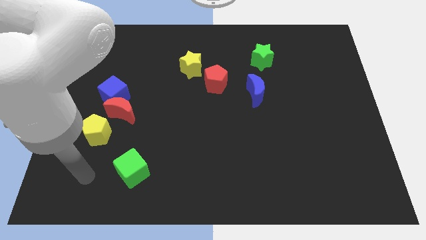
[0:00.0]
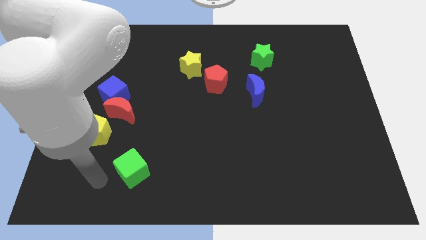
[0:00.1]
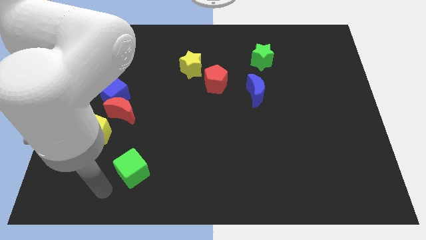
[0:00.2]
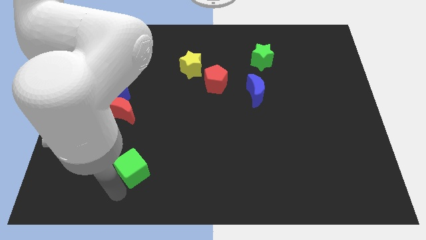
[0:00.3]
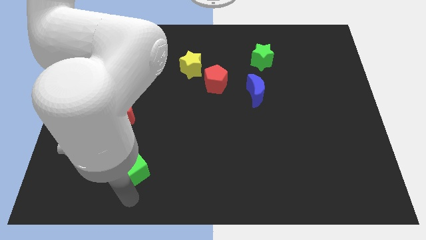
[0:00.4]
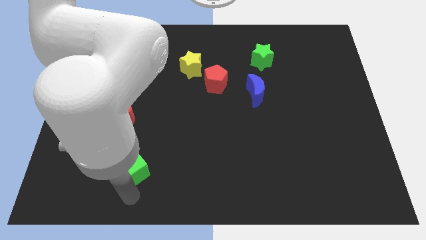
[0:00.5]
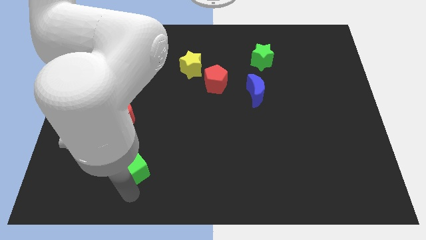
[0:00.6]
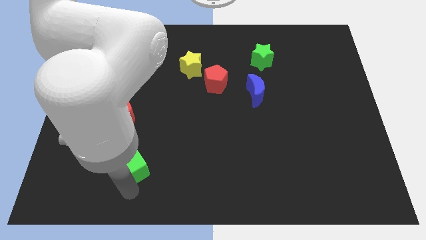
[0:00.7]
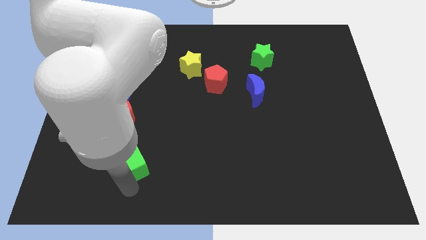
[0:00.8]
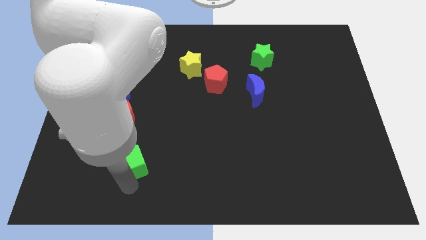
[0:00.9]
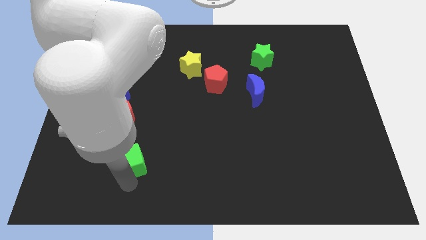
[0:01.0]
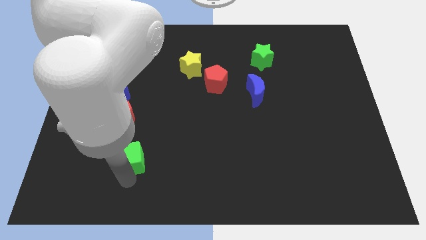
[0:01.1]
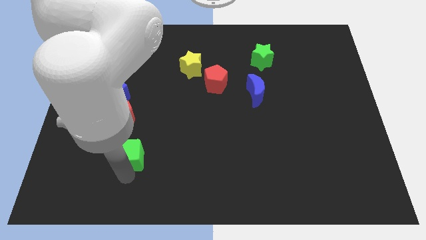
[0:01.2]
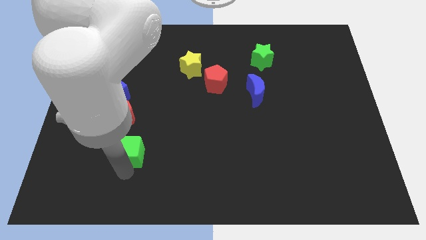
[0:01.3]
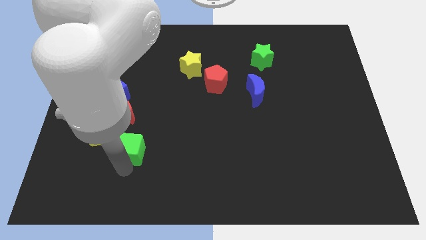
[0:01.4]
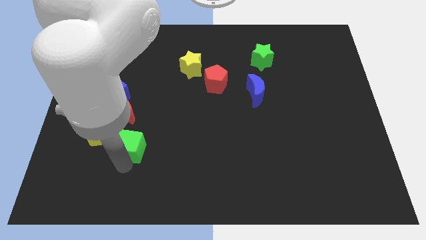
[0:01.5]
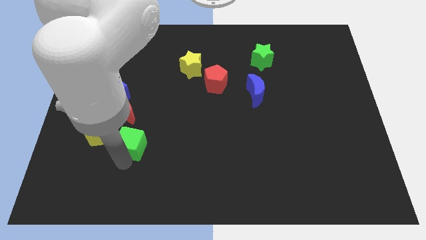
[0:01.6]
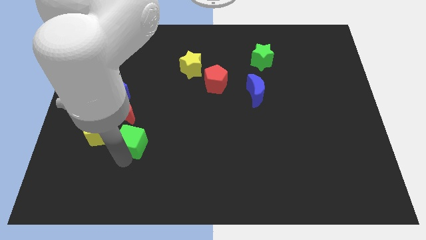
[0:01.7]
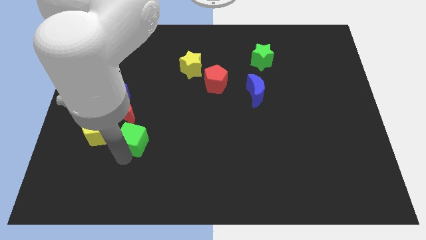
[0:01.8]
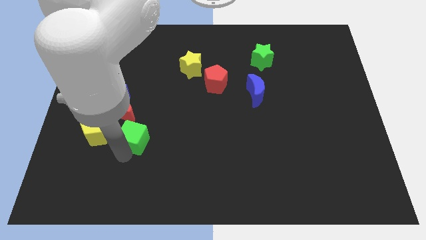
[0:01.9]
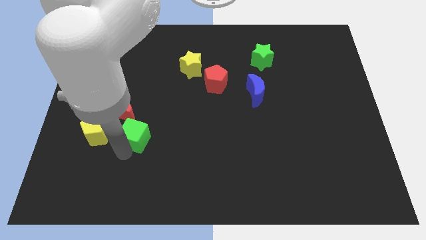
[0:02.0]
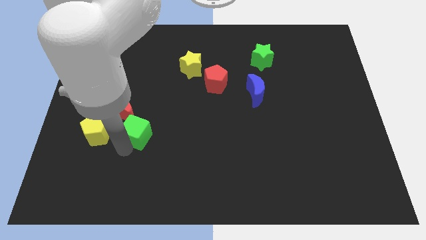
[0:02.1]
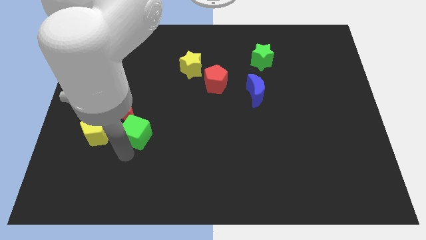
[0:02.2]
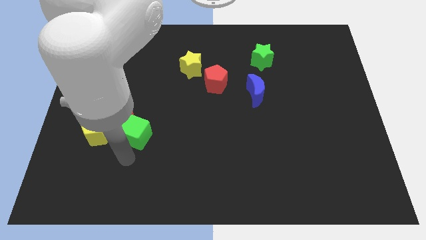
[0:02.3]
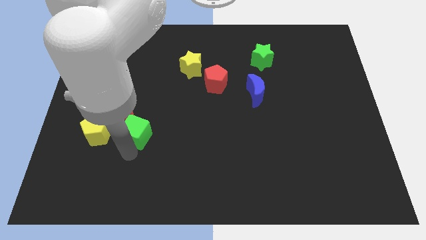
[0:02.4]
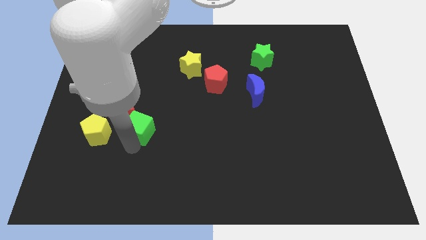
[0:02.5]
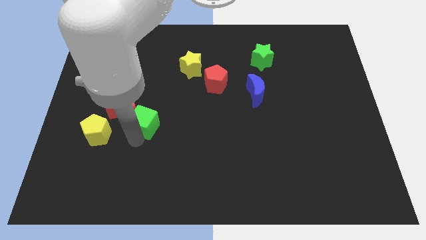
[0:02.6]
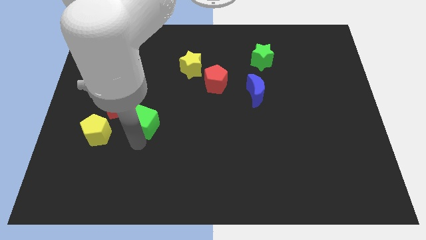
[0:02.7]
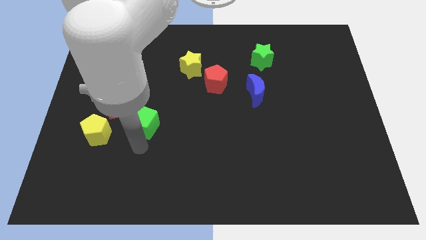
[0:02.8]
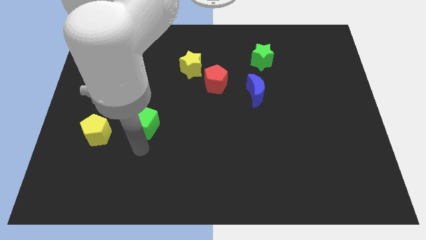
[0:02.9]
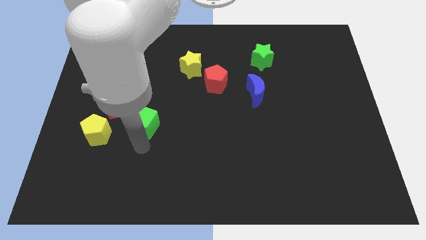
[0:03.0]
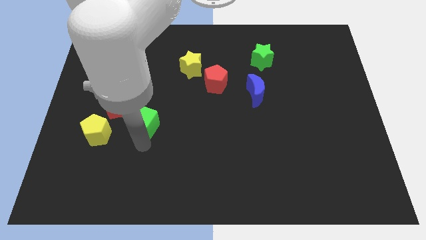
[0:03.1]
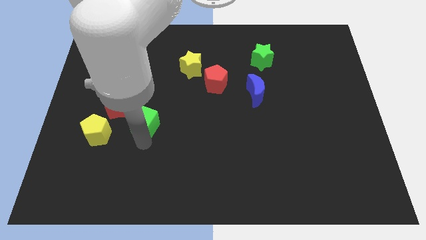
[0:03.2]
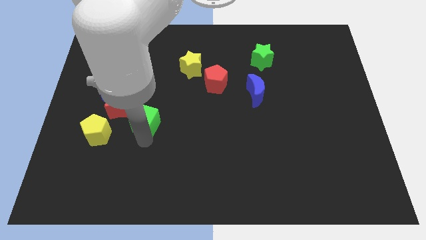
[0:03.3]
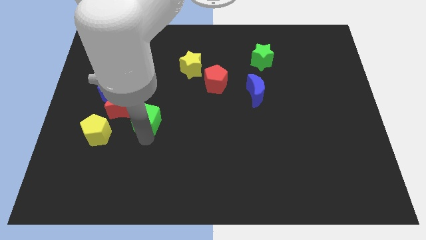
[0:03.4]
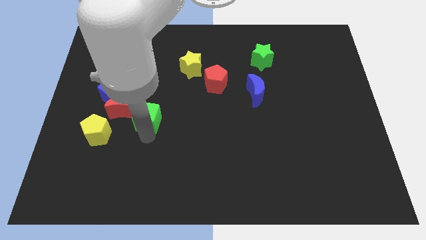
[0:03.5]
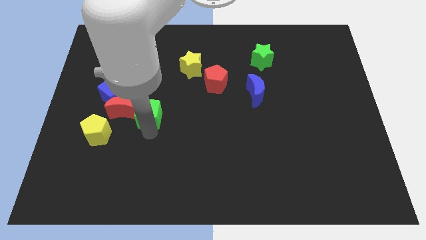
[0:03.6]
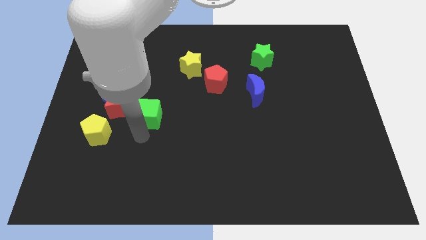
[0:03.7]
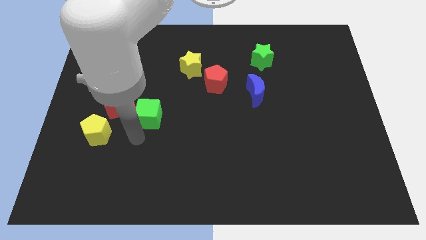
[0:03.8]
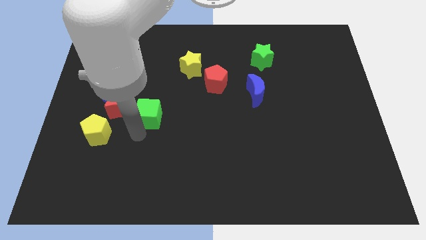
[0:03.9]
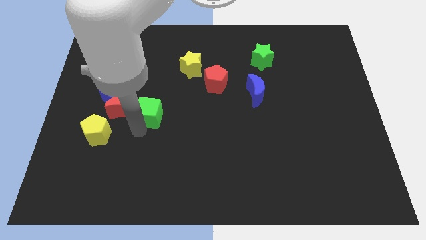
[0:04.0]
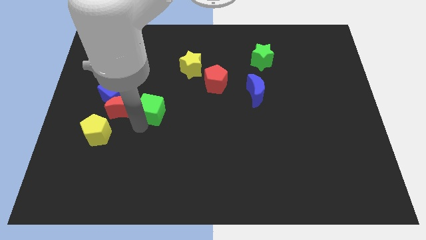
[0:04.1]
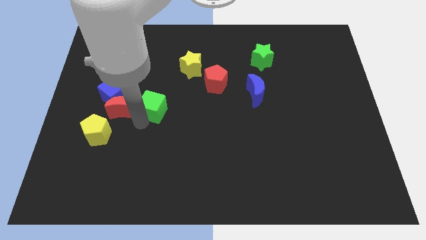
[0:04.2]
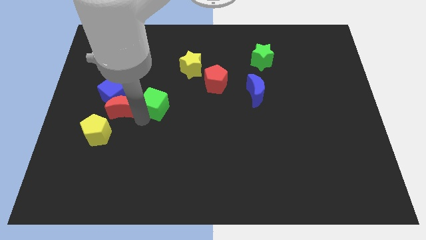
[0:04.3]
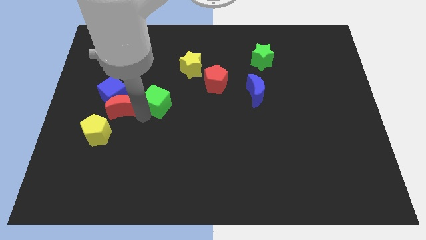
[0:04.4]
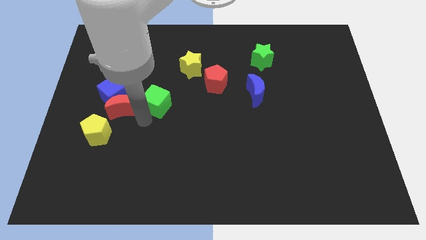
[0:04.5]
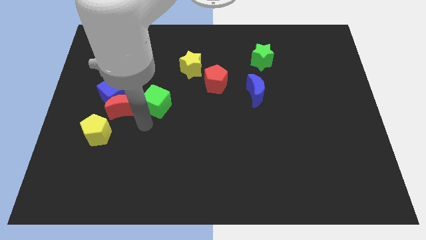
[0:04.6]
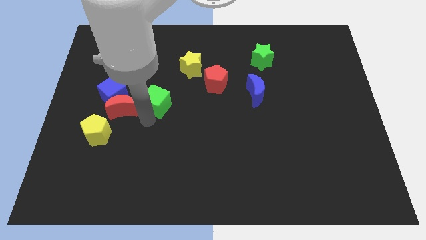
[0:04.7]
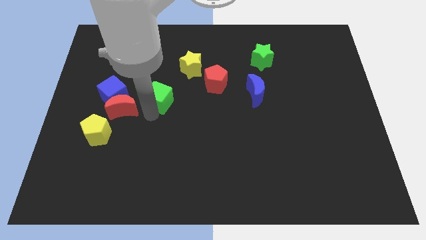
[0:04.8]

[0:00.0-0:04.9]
put the green cube diagonally down and to the left of the yellow star

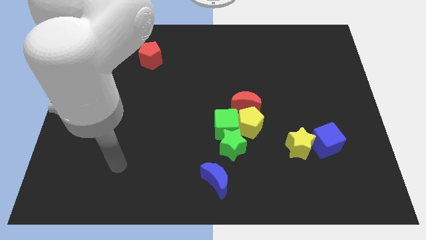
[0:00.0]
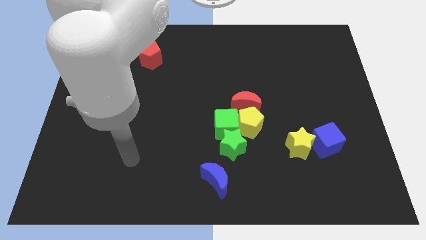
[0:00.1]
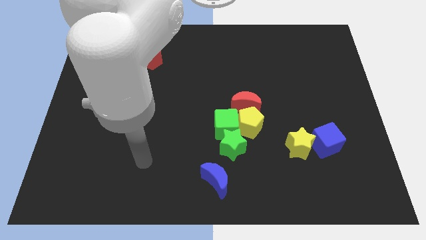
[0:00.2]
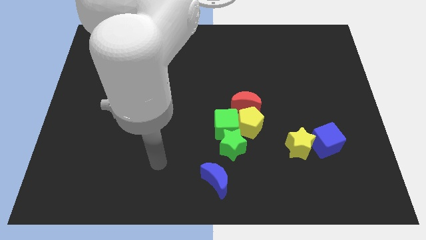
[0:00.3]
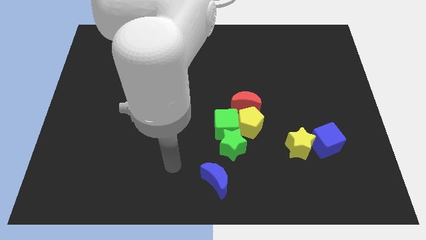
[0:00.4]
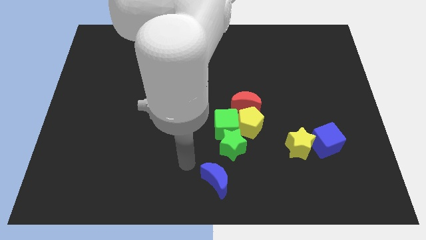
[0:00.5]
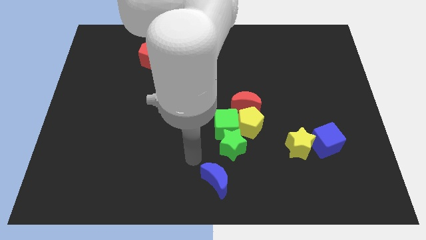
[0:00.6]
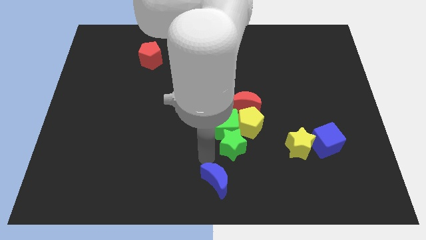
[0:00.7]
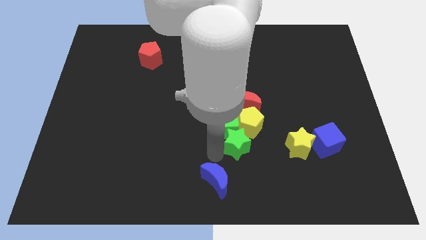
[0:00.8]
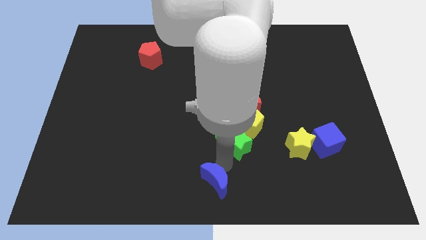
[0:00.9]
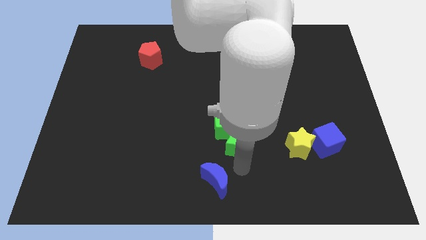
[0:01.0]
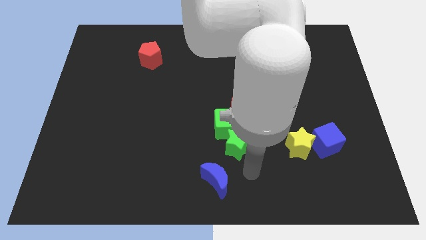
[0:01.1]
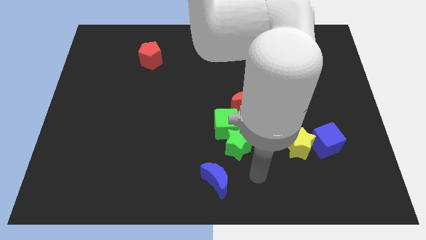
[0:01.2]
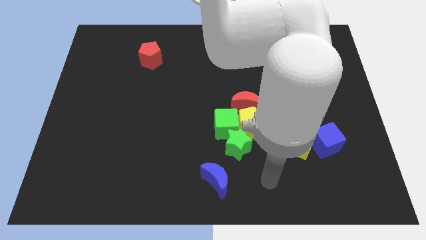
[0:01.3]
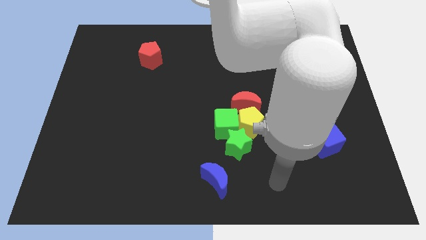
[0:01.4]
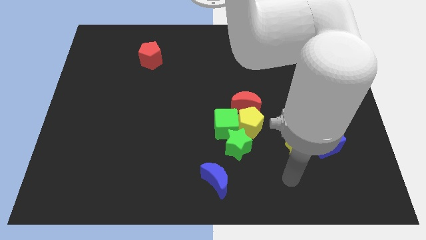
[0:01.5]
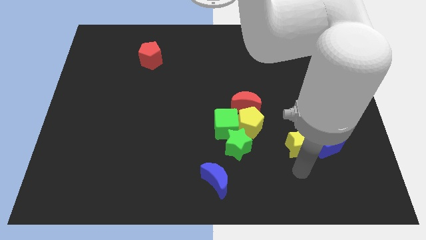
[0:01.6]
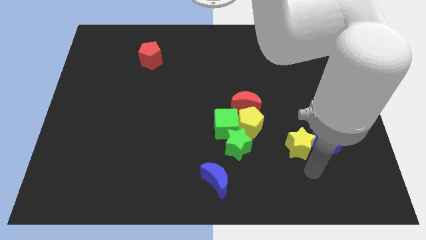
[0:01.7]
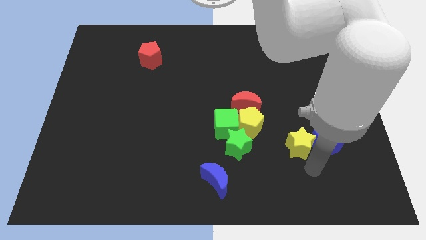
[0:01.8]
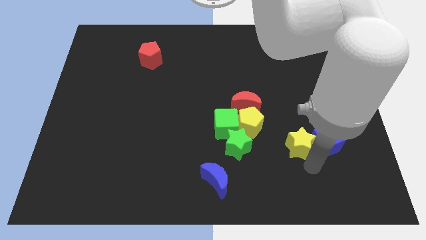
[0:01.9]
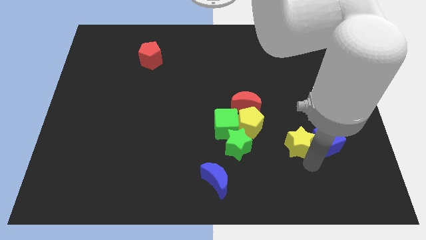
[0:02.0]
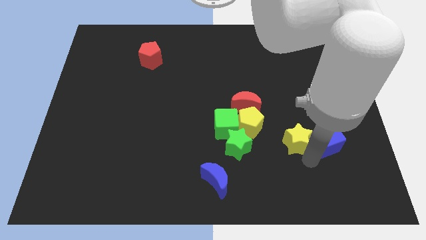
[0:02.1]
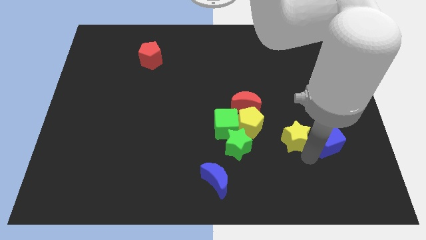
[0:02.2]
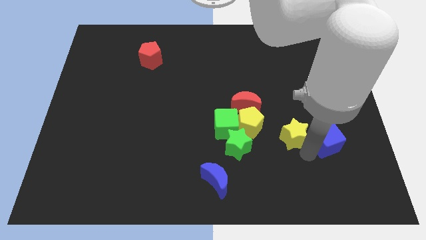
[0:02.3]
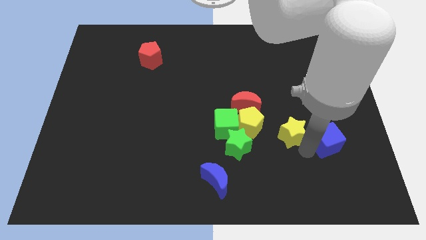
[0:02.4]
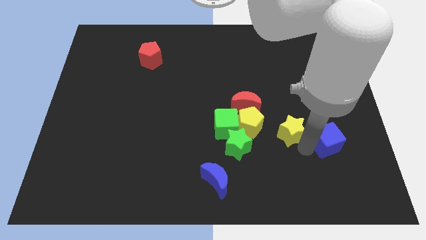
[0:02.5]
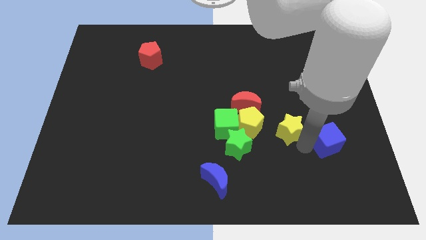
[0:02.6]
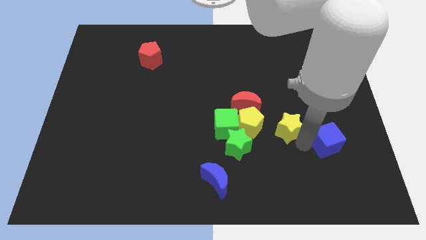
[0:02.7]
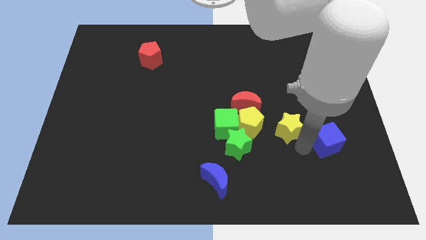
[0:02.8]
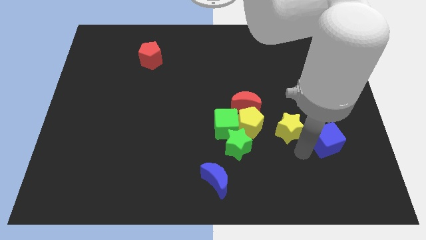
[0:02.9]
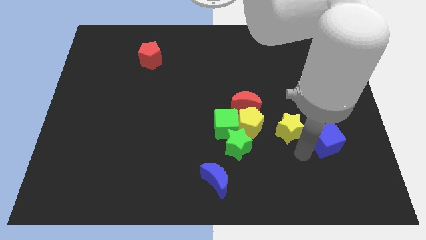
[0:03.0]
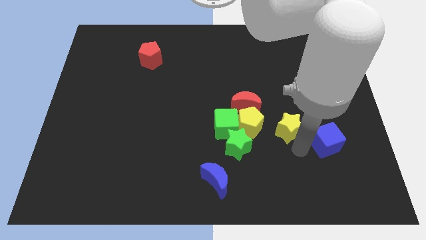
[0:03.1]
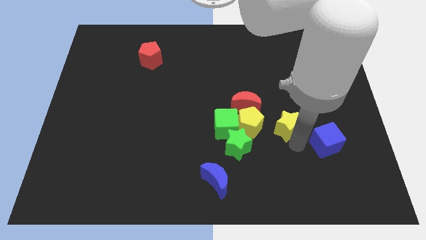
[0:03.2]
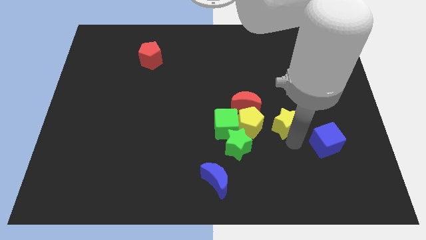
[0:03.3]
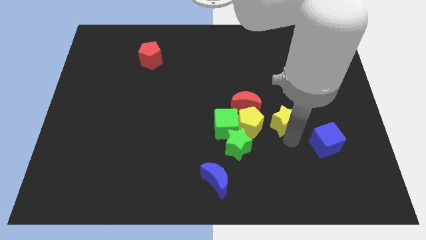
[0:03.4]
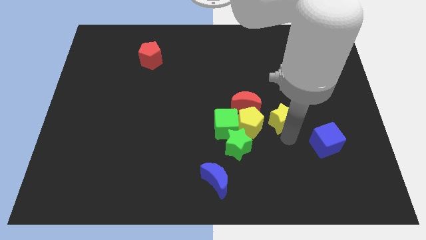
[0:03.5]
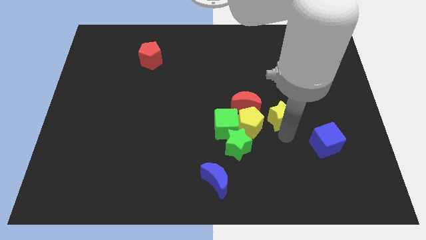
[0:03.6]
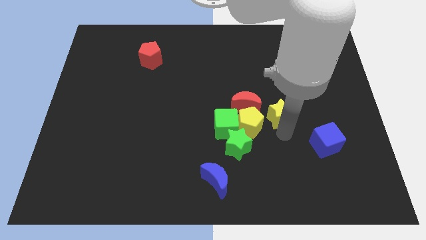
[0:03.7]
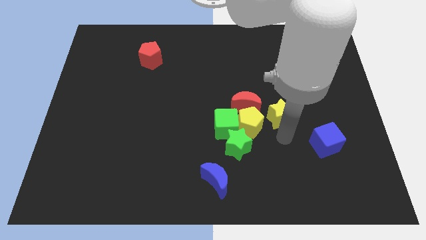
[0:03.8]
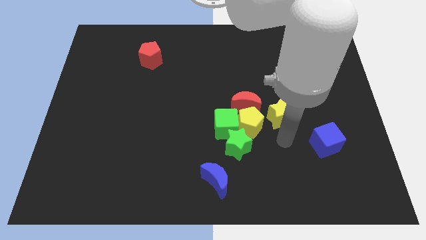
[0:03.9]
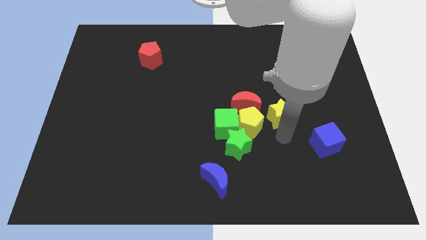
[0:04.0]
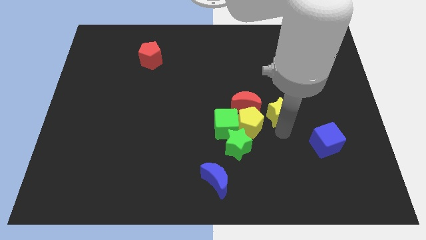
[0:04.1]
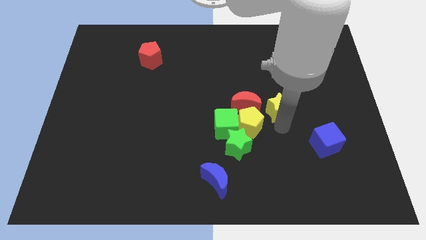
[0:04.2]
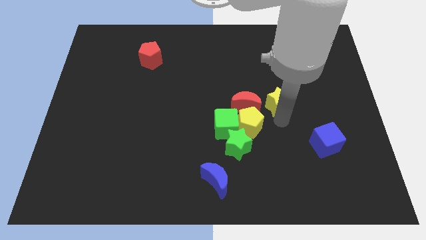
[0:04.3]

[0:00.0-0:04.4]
move the yellow star to the top right of the red moon
